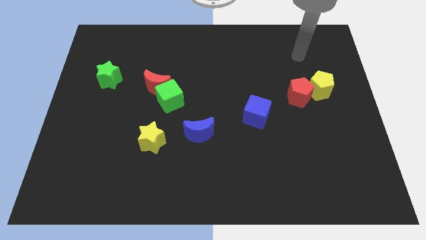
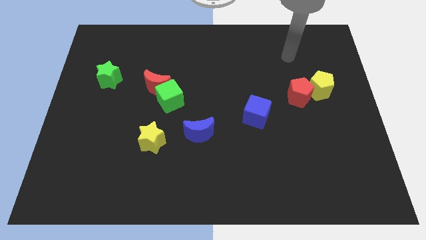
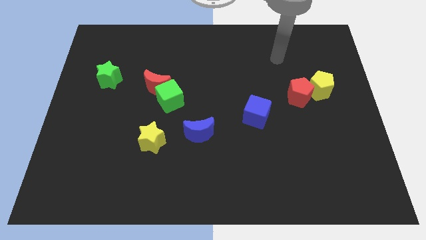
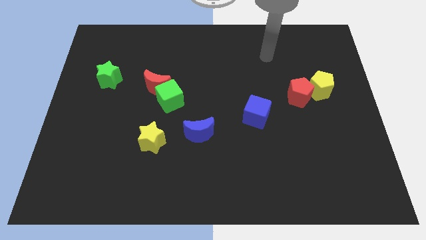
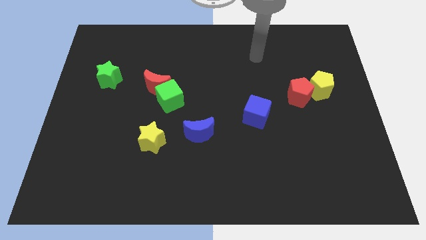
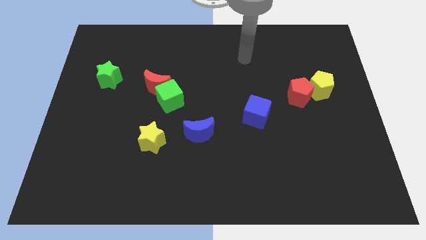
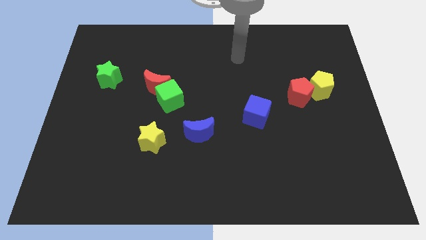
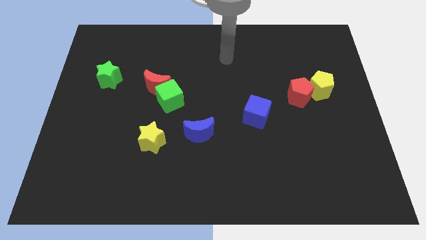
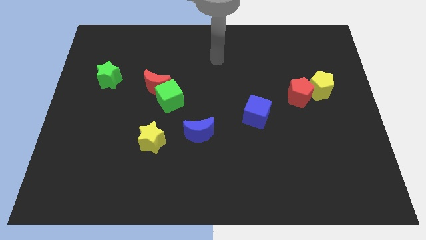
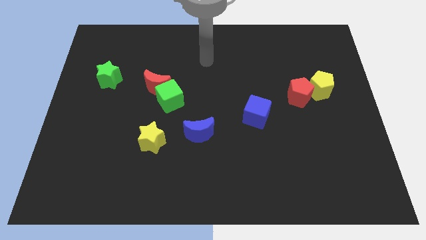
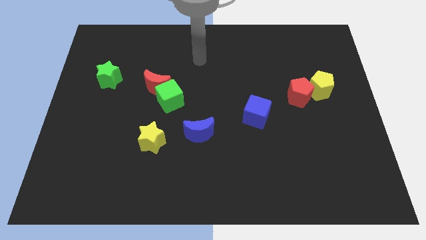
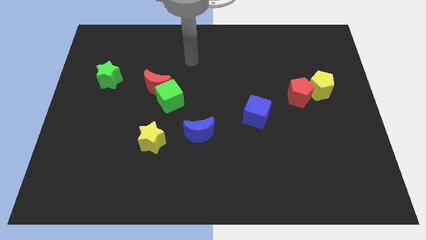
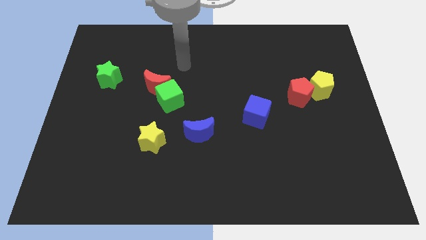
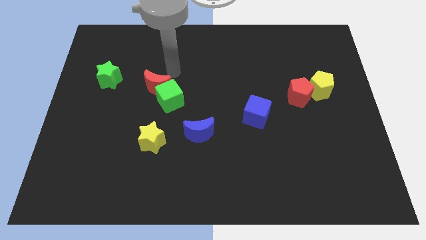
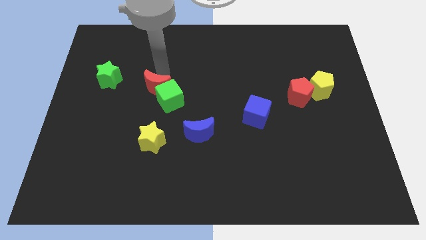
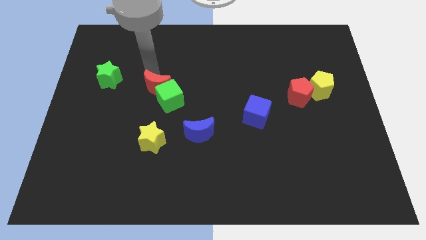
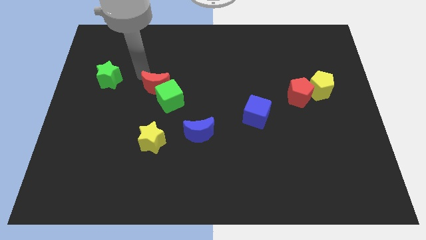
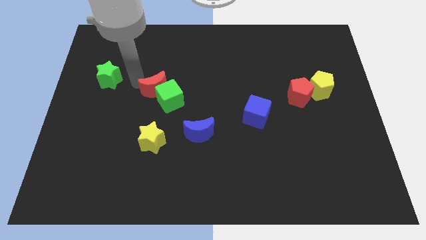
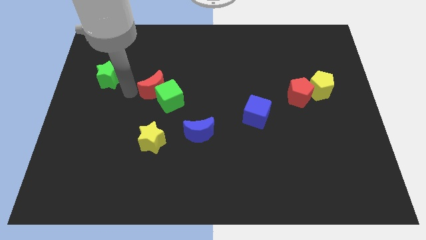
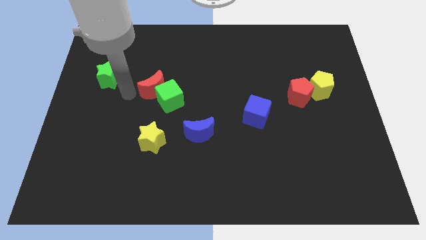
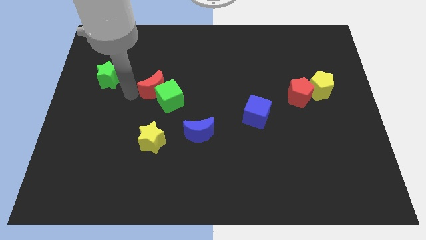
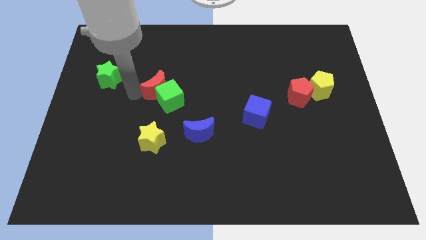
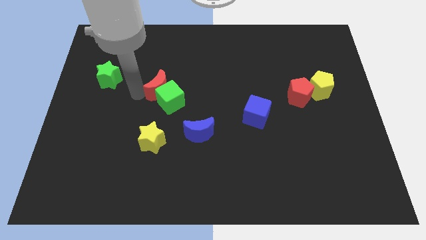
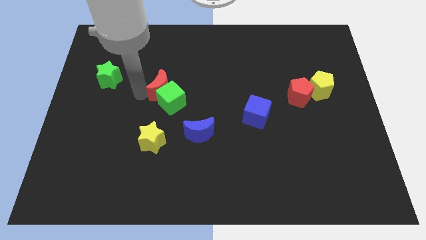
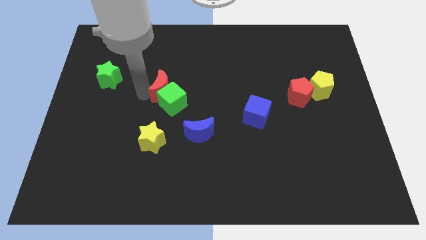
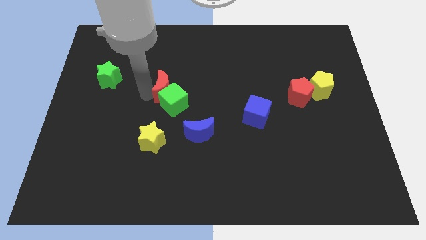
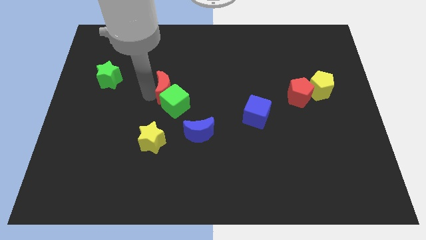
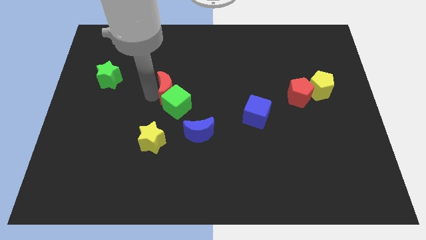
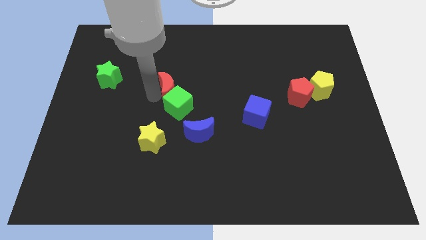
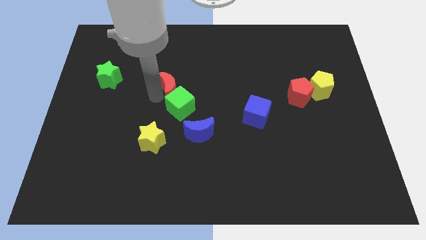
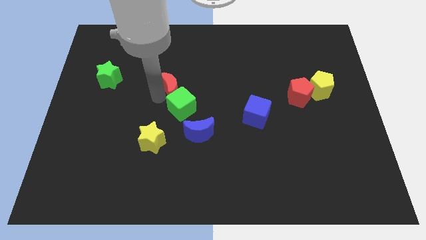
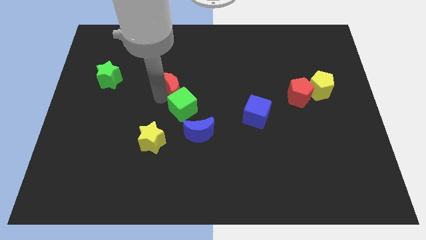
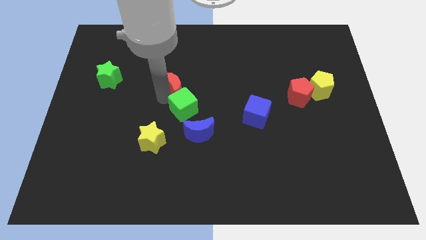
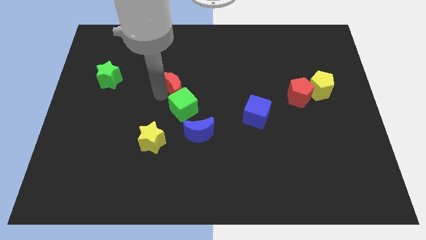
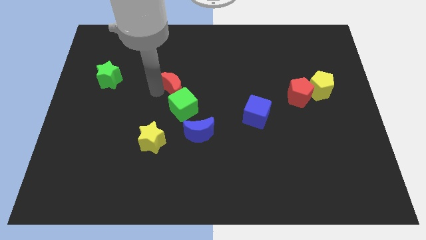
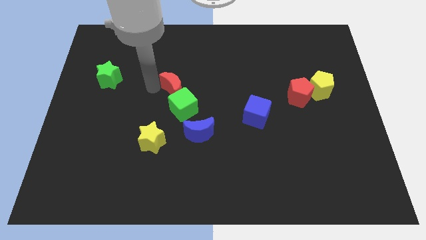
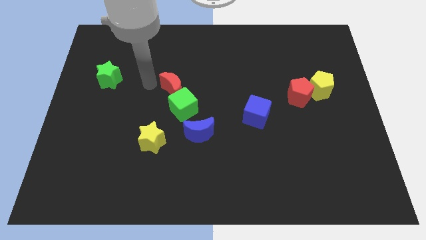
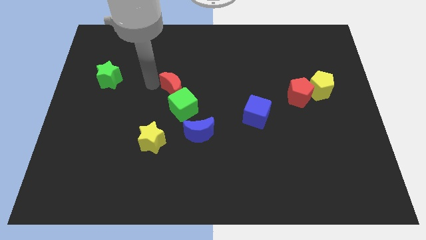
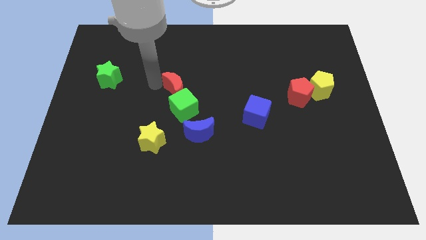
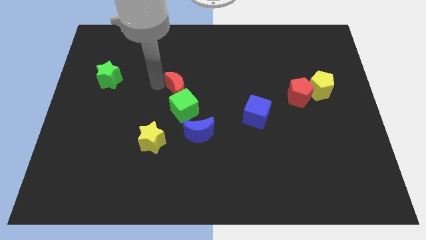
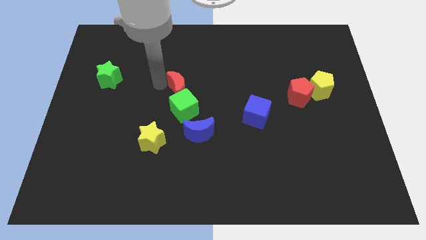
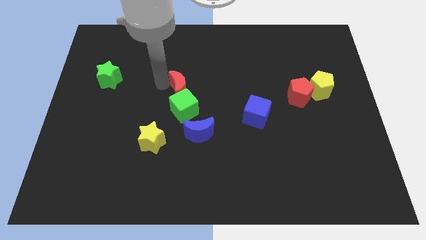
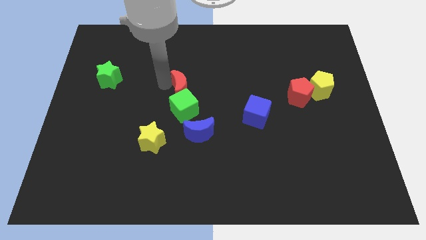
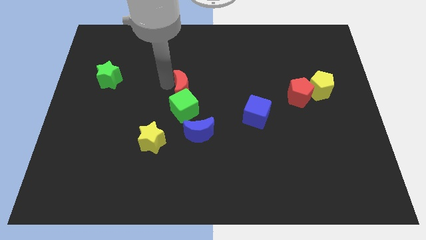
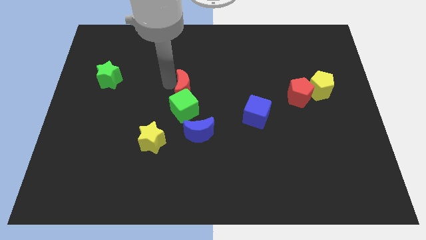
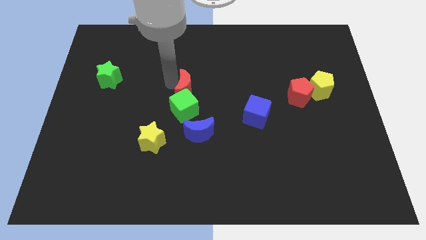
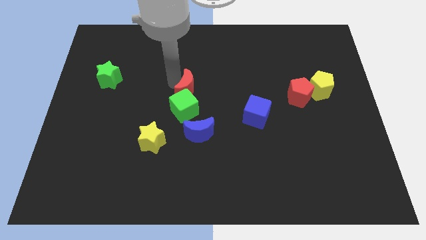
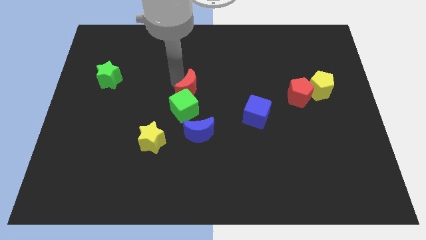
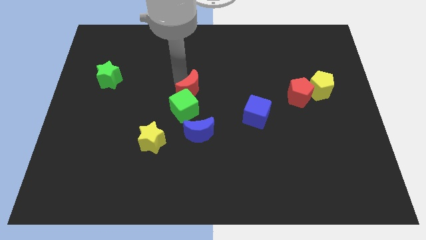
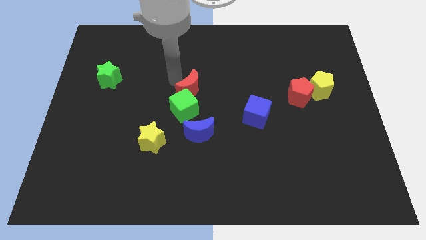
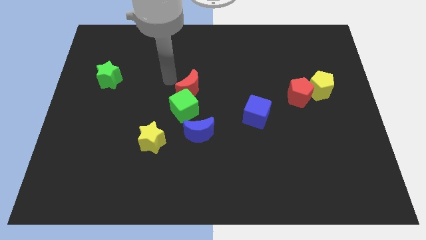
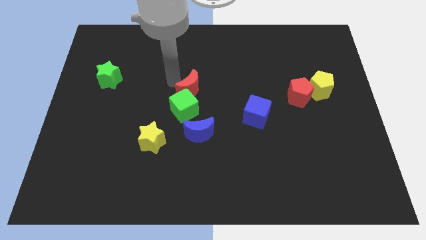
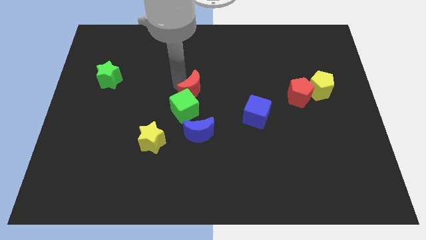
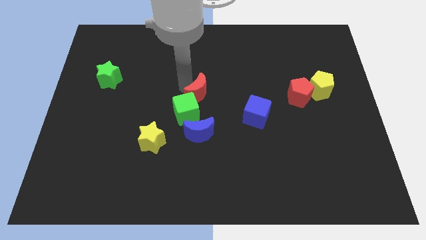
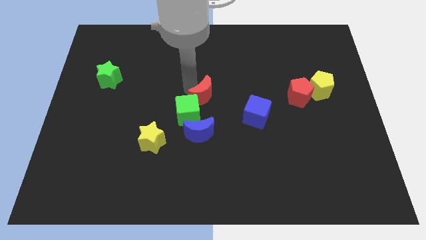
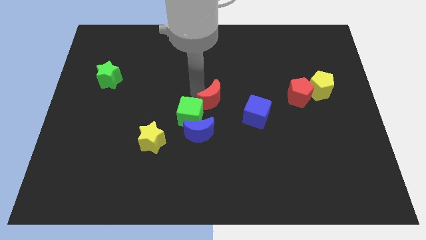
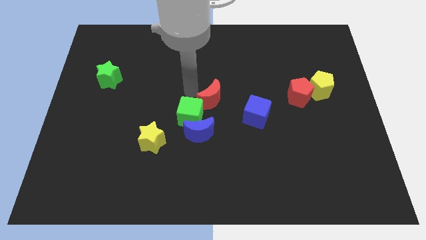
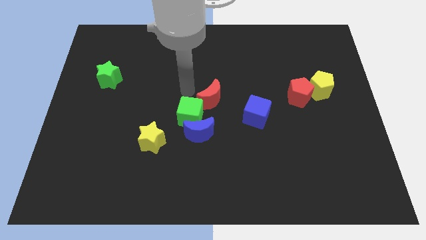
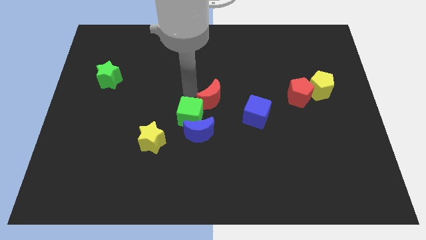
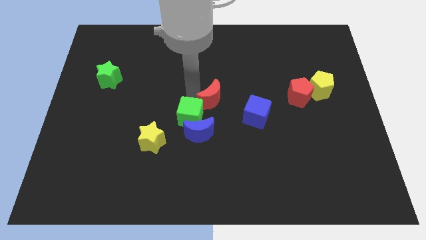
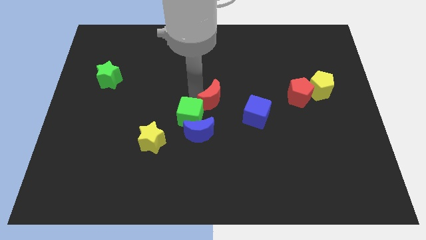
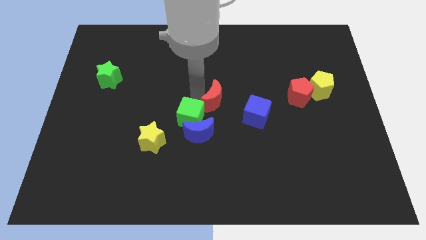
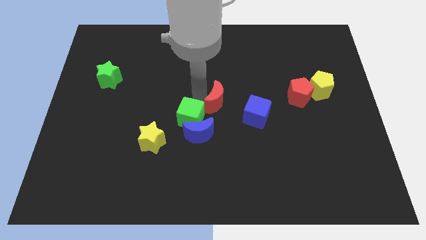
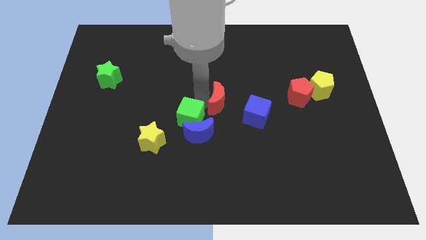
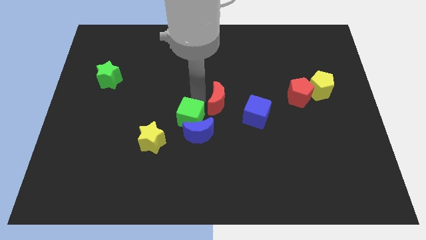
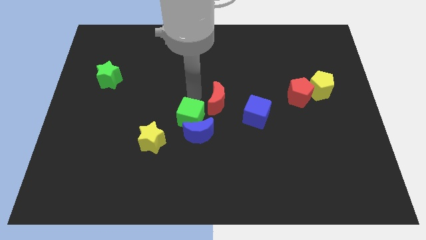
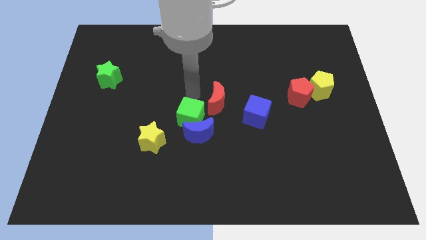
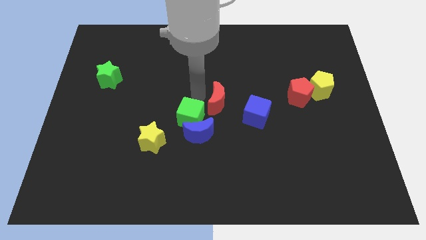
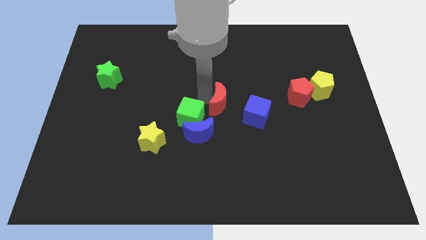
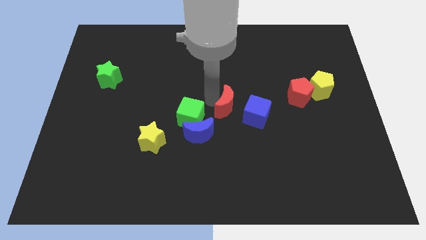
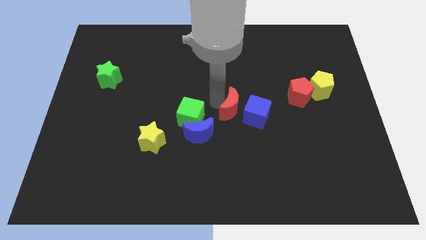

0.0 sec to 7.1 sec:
push the red moon towards the blue cube
